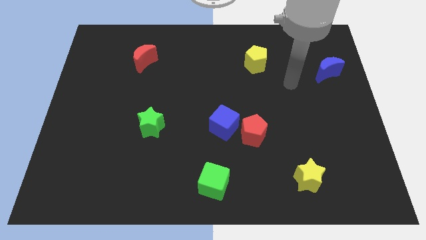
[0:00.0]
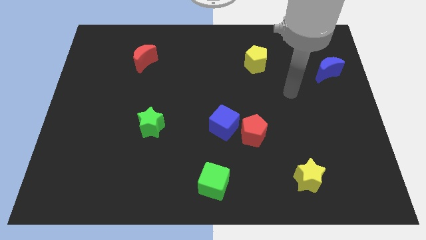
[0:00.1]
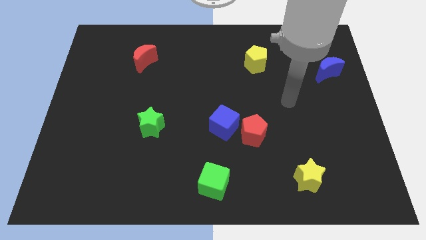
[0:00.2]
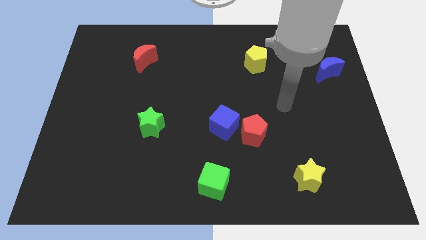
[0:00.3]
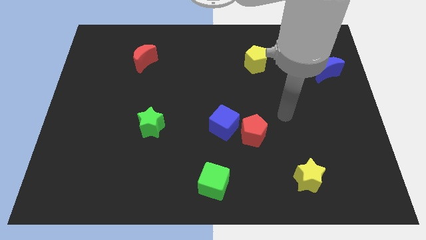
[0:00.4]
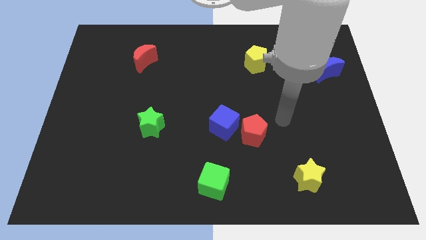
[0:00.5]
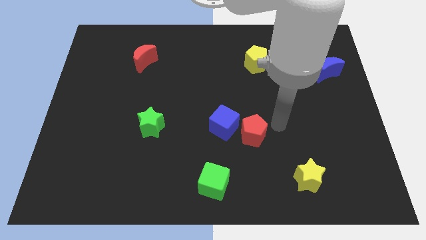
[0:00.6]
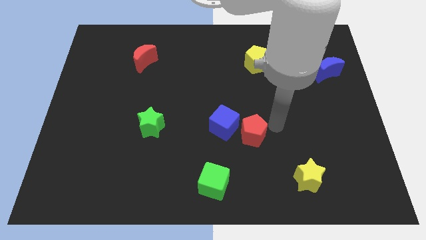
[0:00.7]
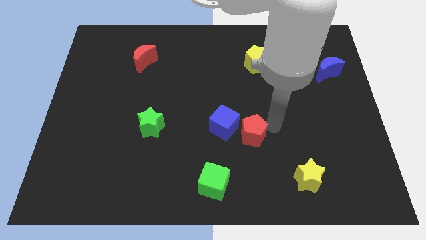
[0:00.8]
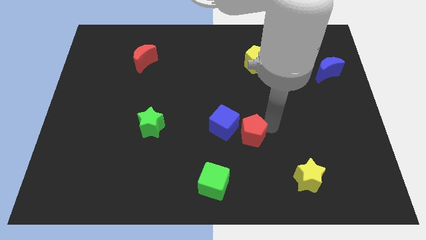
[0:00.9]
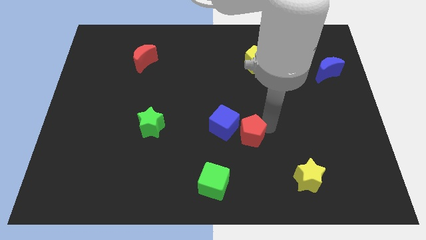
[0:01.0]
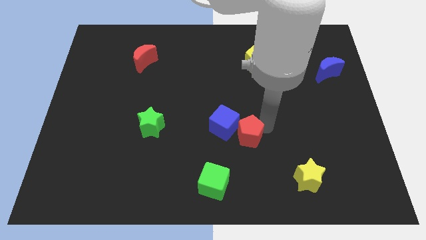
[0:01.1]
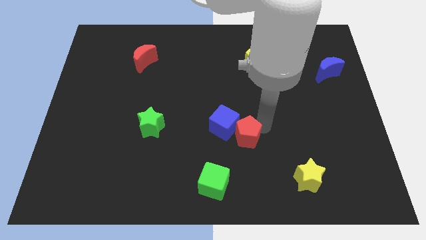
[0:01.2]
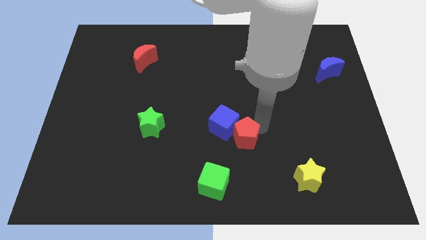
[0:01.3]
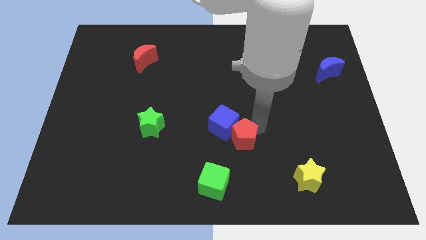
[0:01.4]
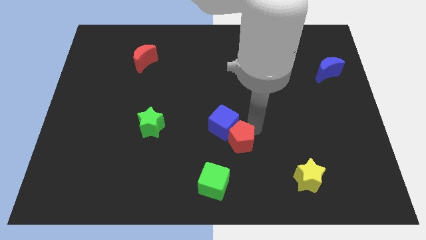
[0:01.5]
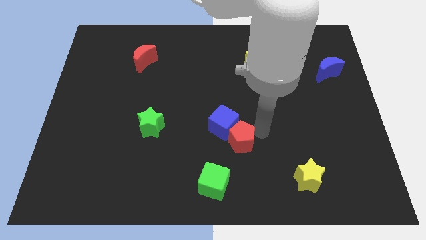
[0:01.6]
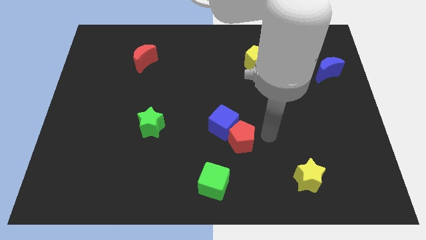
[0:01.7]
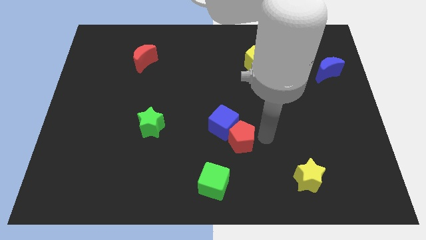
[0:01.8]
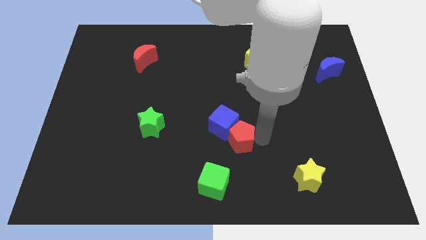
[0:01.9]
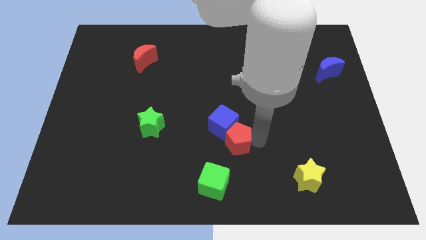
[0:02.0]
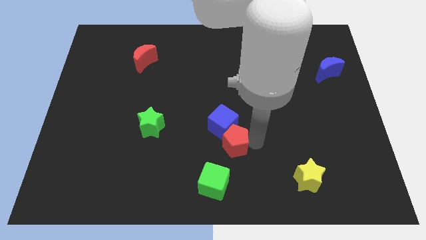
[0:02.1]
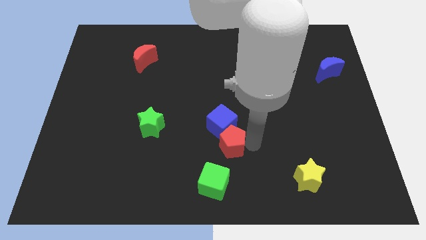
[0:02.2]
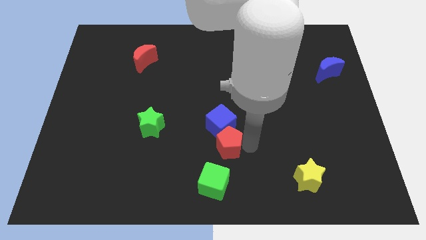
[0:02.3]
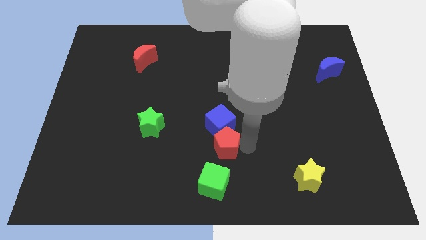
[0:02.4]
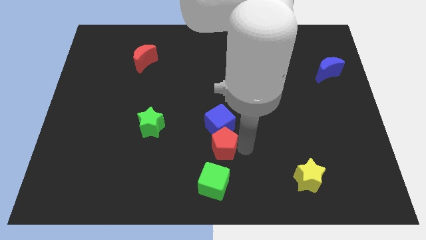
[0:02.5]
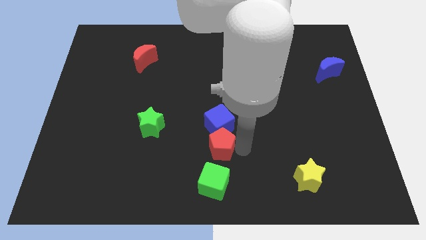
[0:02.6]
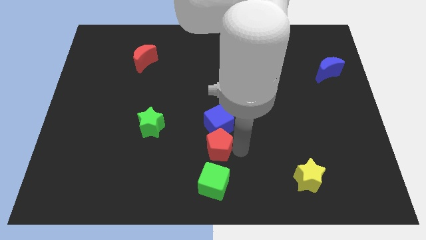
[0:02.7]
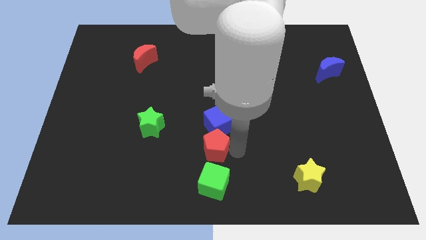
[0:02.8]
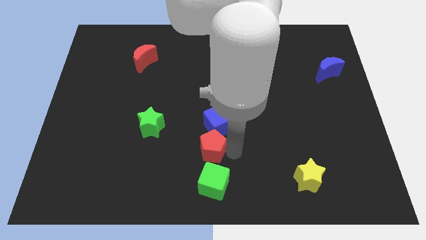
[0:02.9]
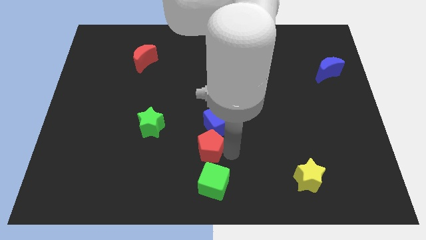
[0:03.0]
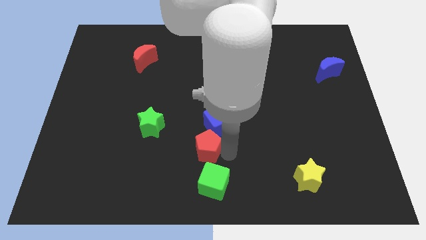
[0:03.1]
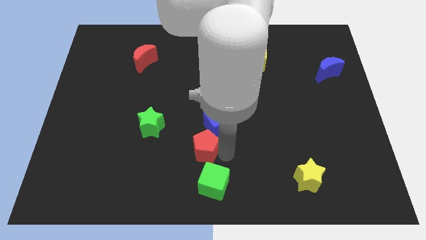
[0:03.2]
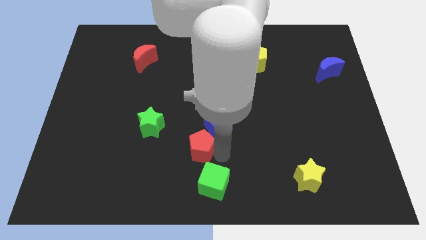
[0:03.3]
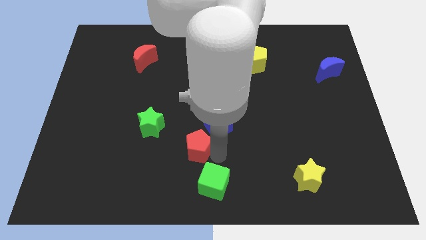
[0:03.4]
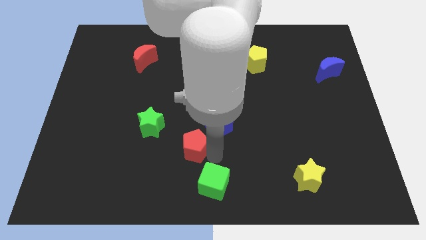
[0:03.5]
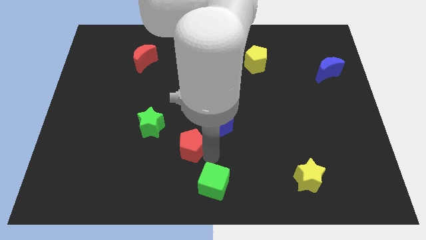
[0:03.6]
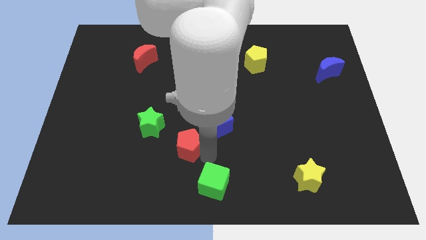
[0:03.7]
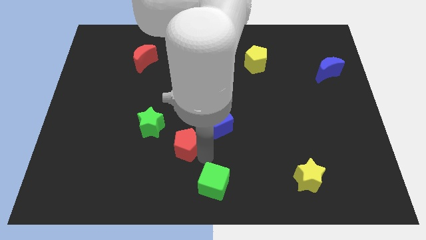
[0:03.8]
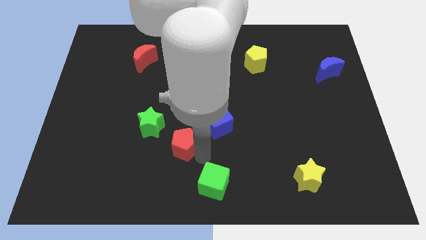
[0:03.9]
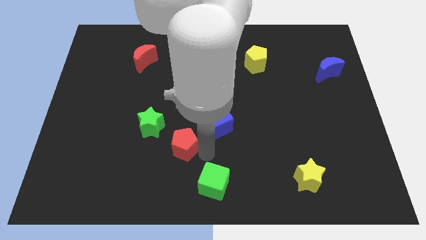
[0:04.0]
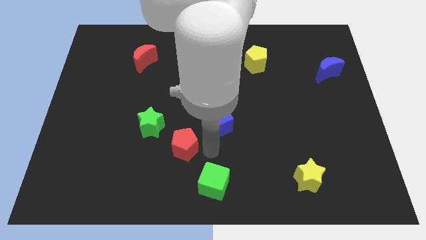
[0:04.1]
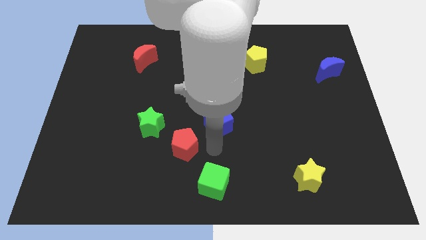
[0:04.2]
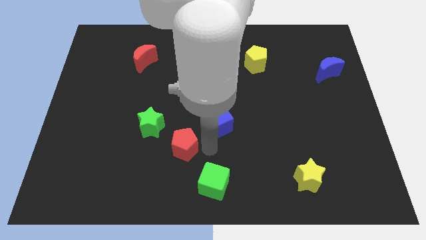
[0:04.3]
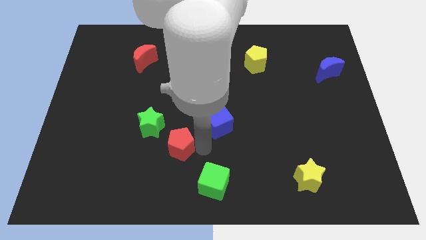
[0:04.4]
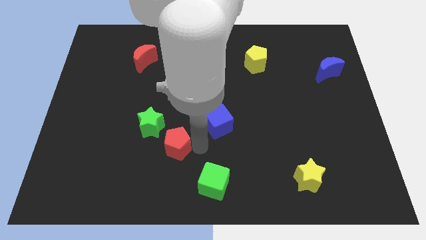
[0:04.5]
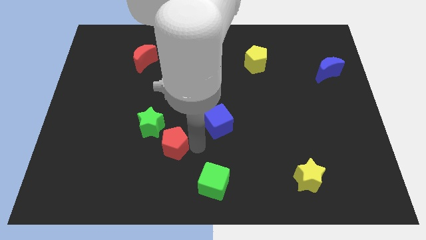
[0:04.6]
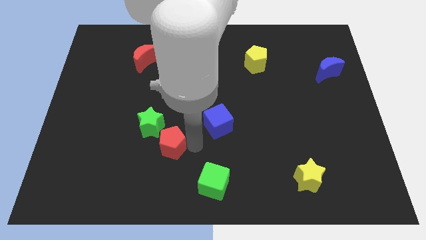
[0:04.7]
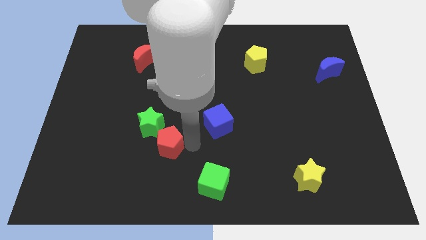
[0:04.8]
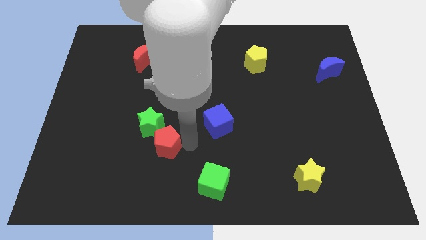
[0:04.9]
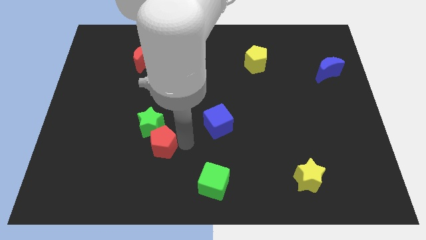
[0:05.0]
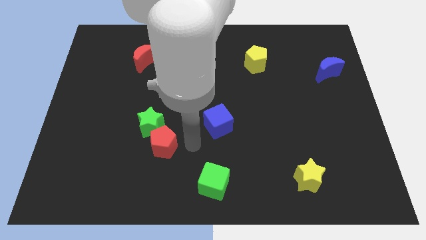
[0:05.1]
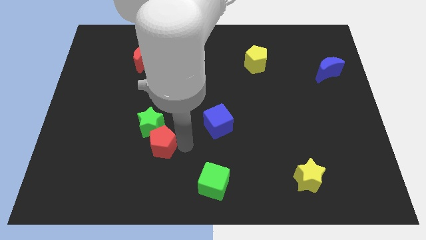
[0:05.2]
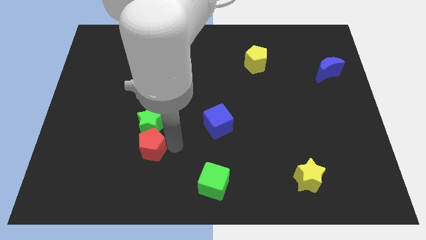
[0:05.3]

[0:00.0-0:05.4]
slide the red pentagon diagonally down and to the left of the green star

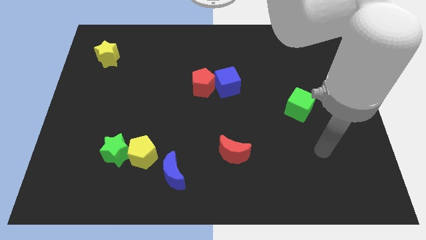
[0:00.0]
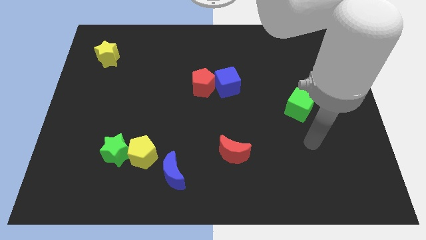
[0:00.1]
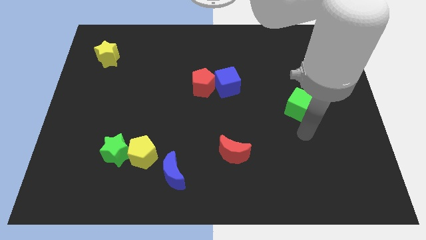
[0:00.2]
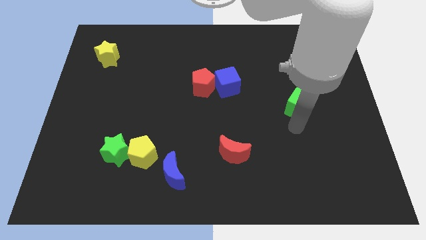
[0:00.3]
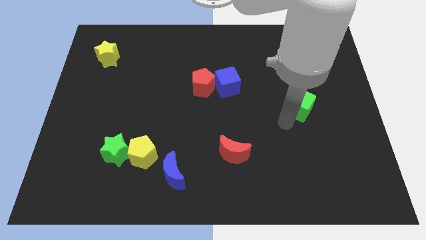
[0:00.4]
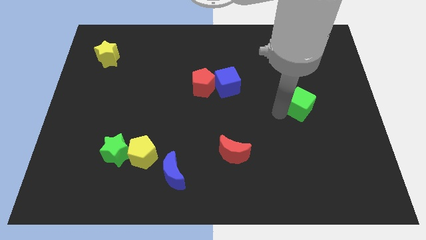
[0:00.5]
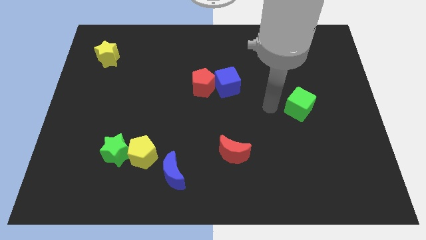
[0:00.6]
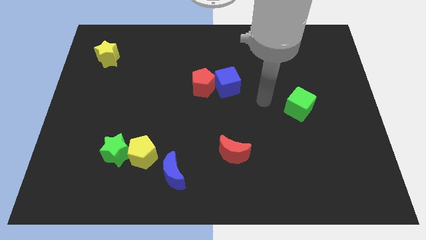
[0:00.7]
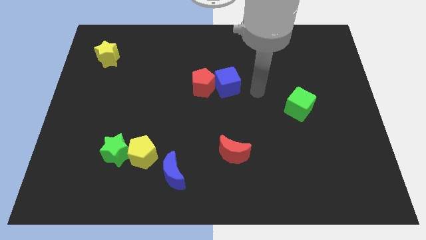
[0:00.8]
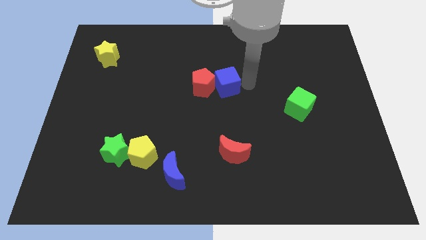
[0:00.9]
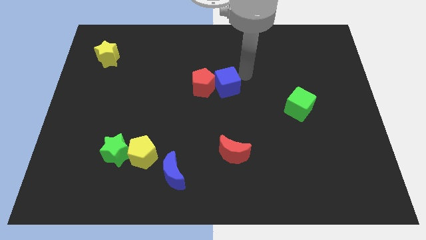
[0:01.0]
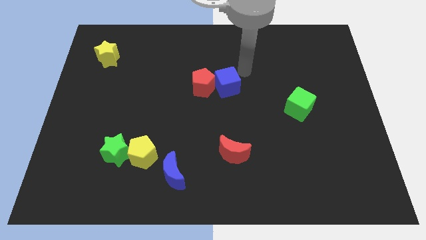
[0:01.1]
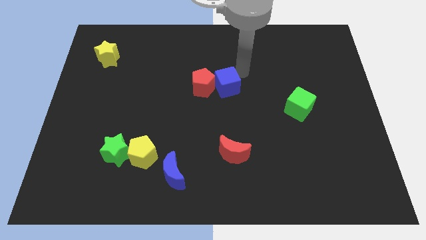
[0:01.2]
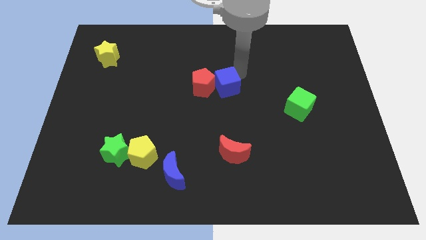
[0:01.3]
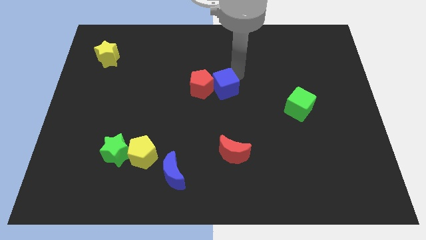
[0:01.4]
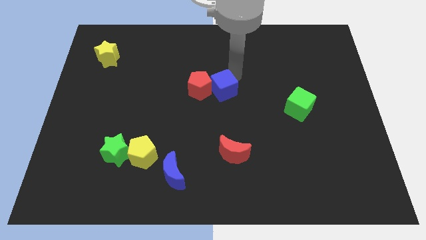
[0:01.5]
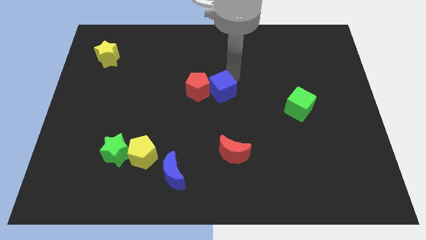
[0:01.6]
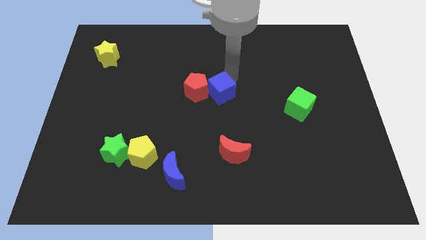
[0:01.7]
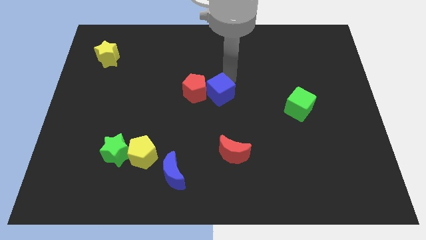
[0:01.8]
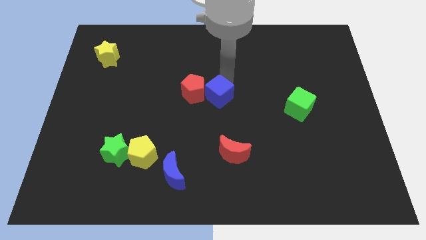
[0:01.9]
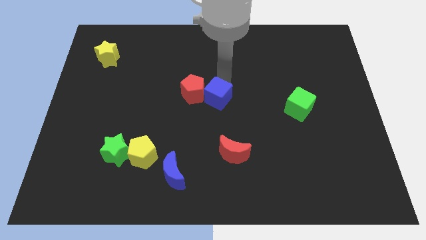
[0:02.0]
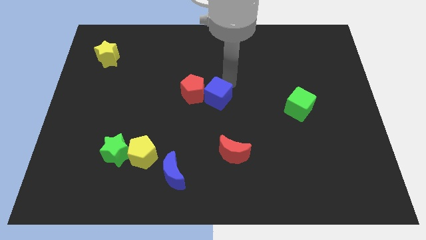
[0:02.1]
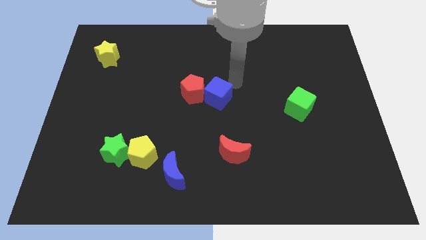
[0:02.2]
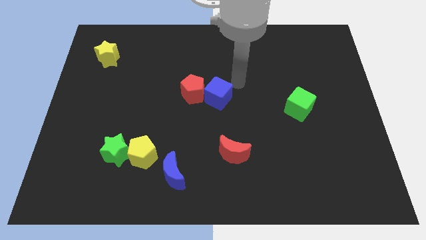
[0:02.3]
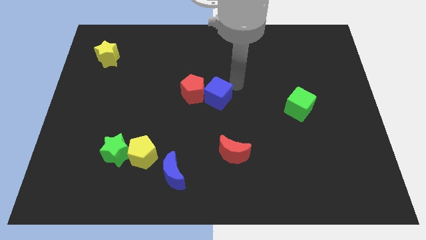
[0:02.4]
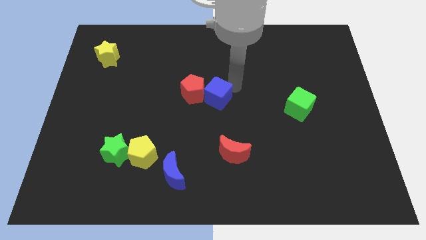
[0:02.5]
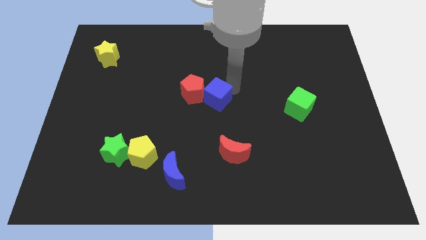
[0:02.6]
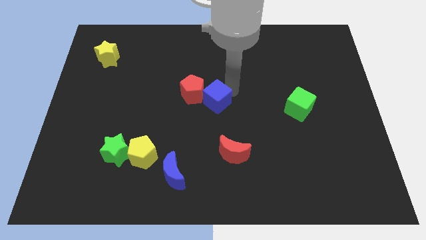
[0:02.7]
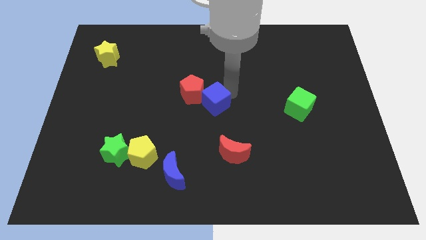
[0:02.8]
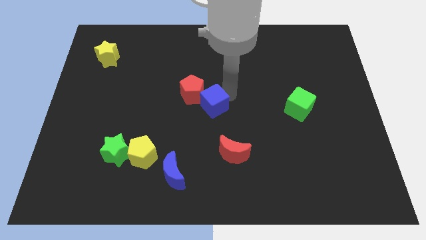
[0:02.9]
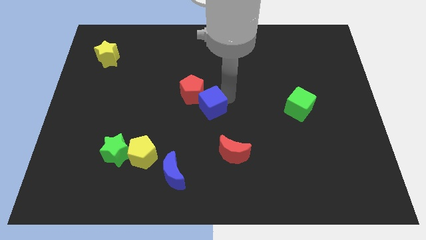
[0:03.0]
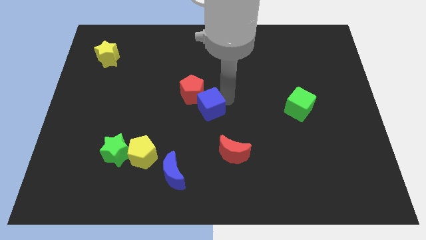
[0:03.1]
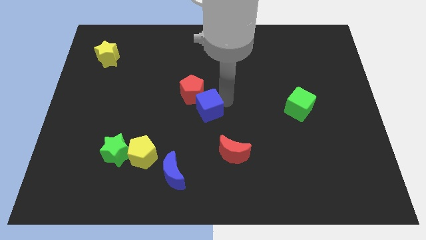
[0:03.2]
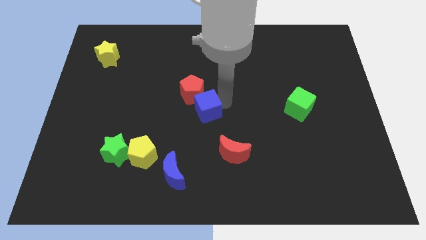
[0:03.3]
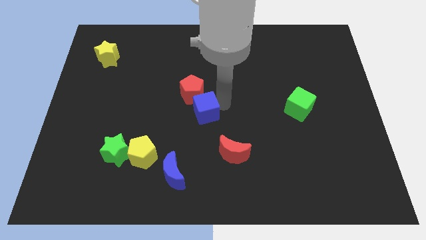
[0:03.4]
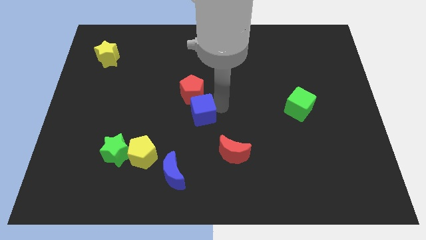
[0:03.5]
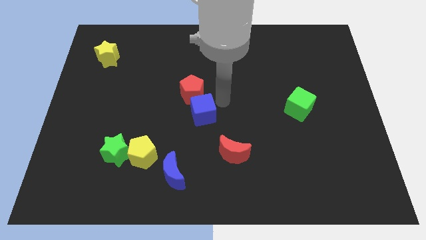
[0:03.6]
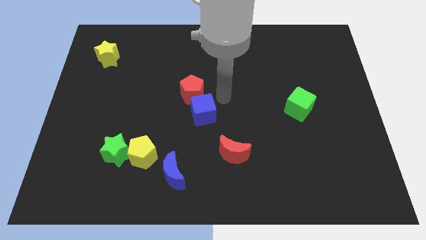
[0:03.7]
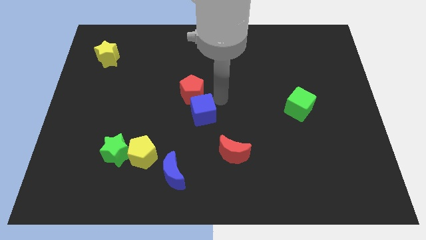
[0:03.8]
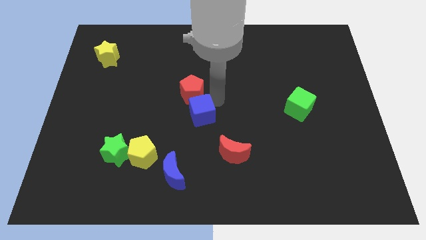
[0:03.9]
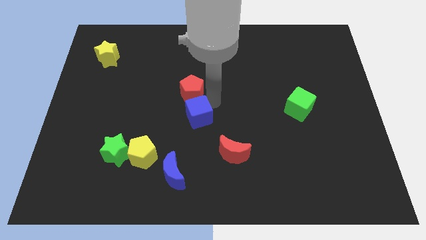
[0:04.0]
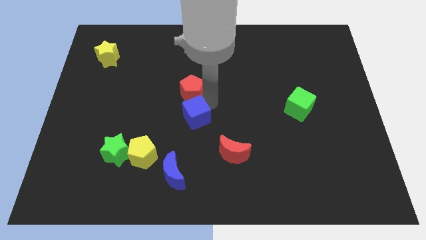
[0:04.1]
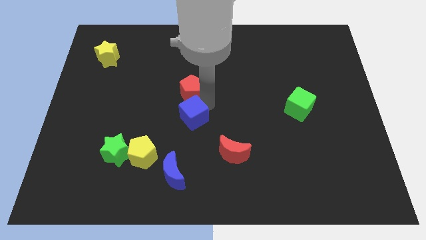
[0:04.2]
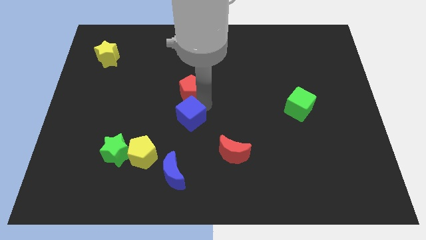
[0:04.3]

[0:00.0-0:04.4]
slide the blue cube to the top of the blue moon
